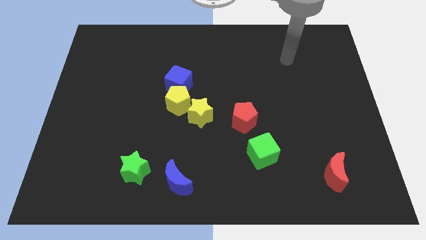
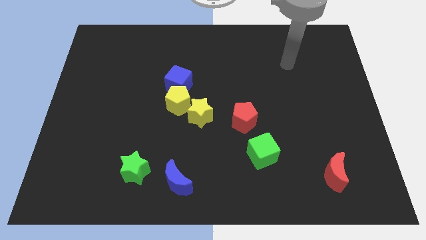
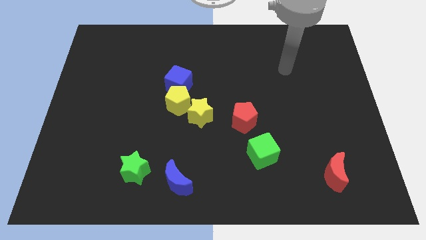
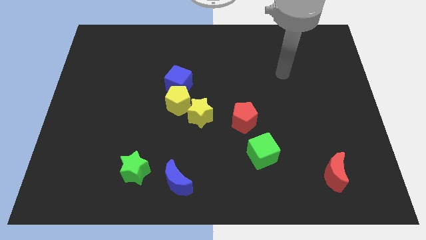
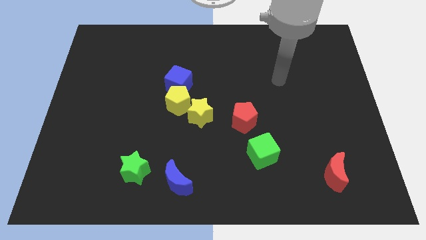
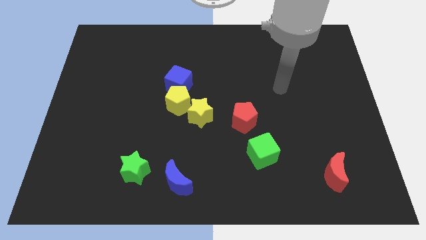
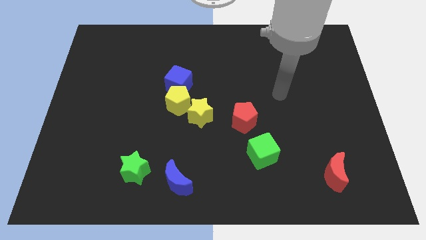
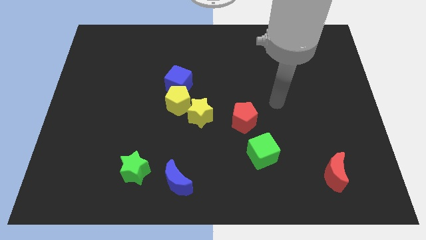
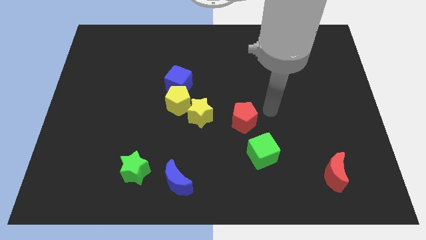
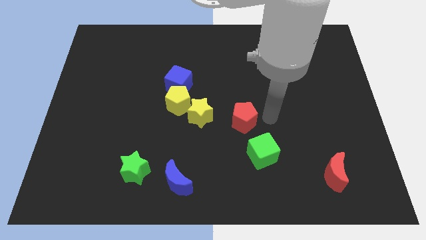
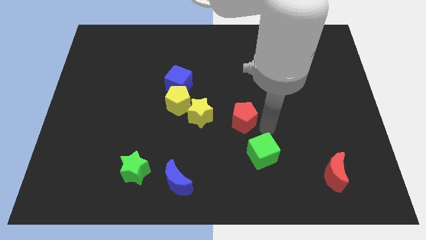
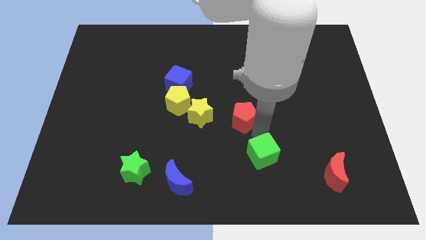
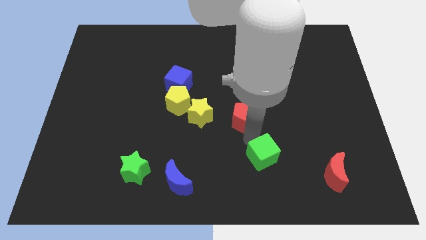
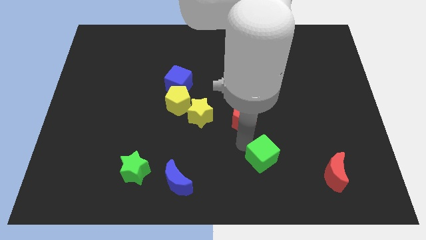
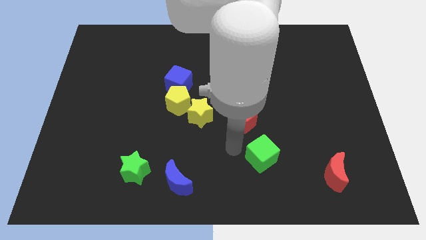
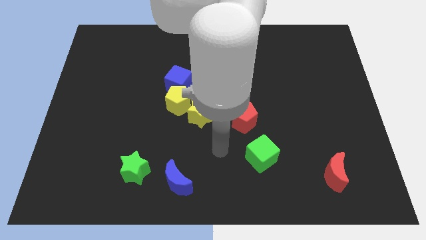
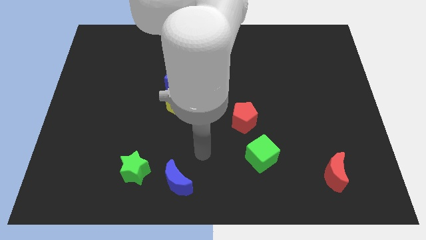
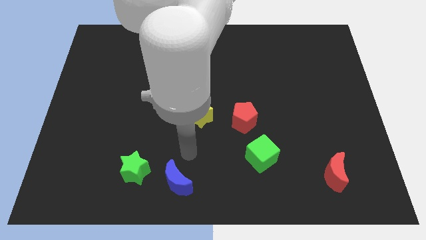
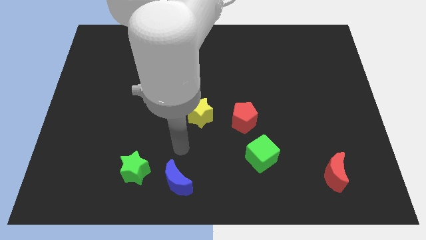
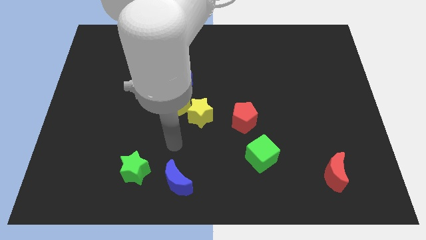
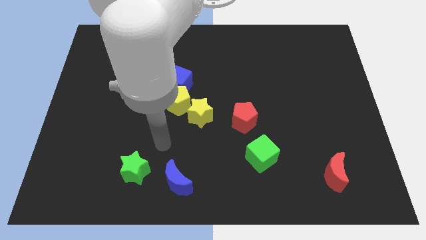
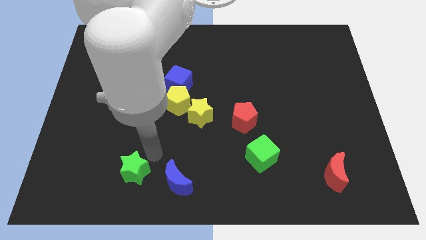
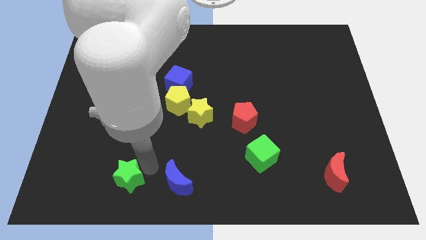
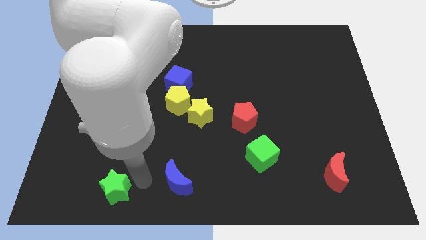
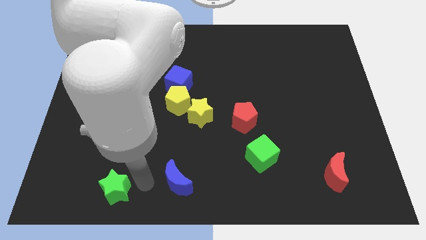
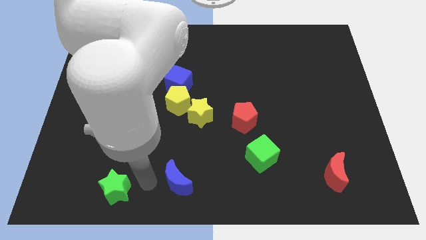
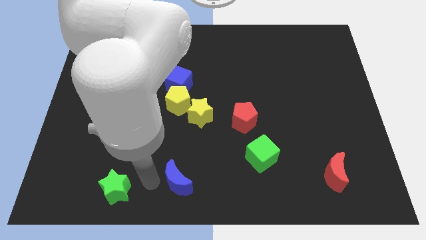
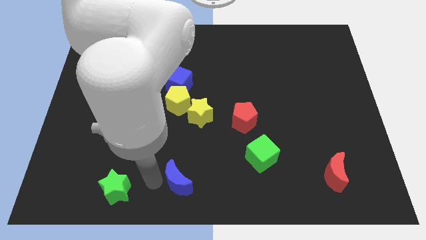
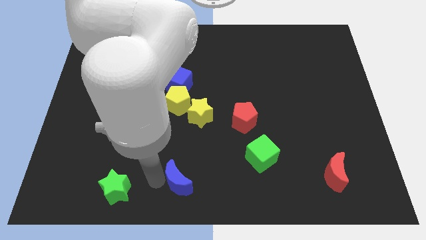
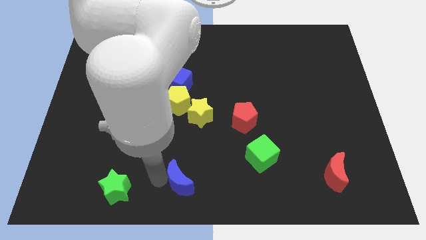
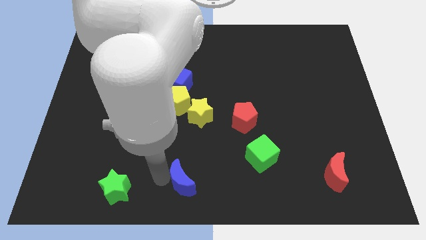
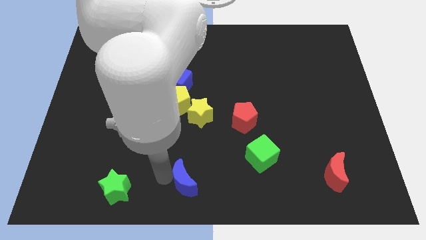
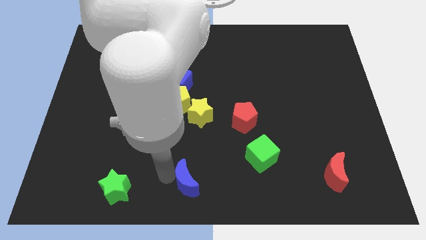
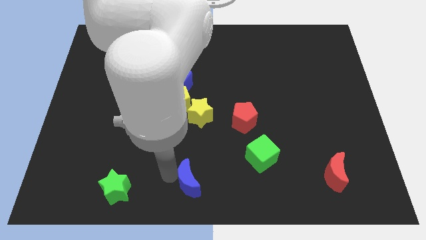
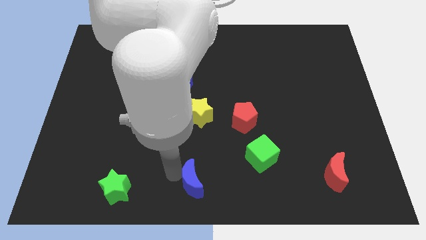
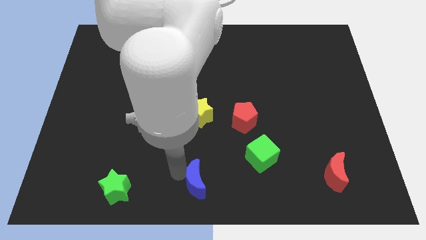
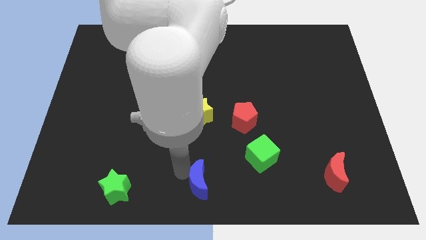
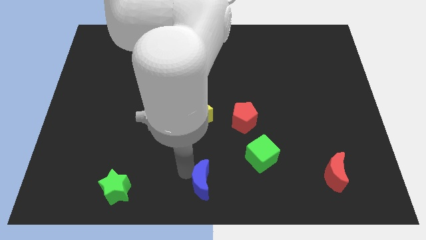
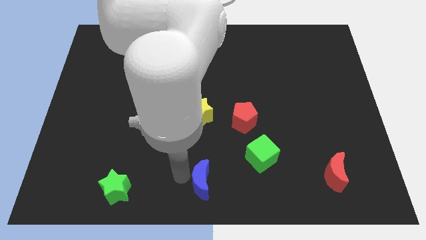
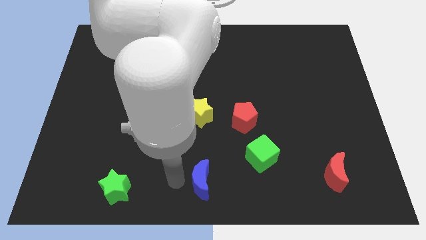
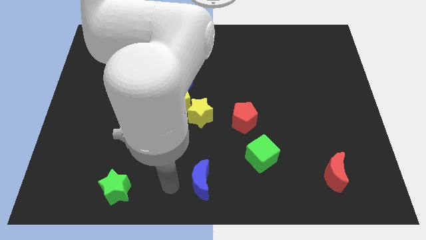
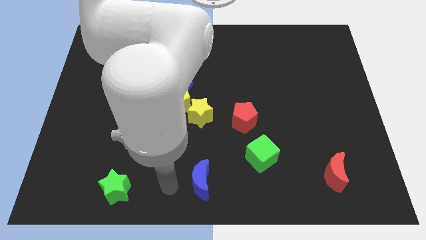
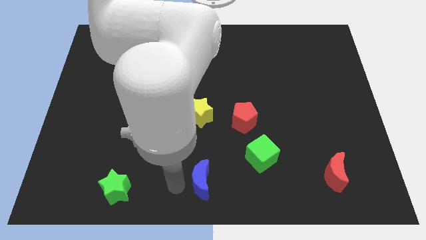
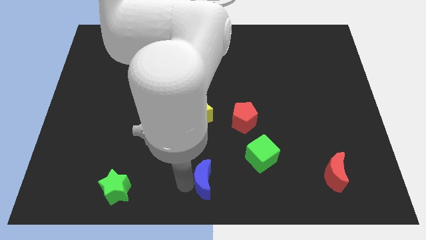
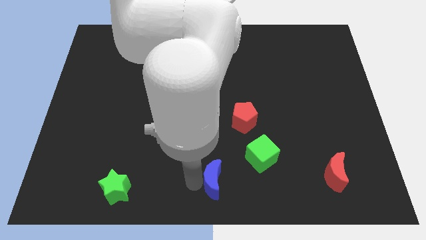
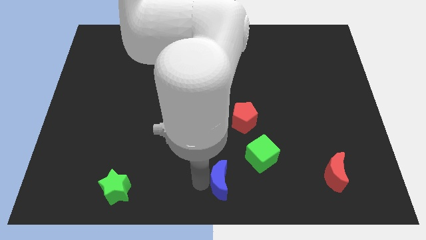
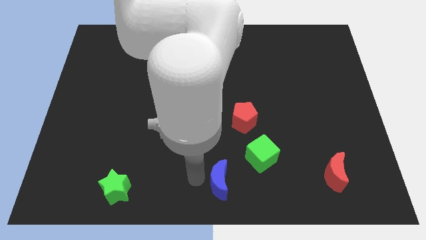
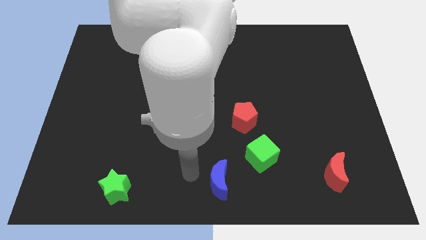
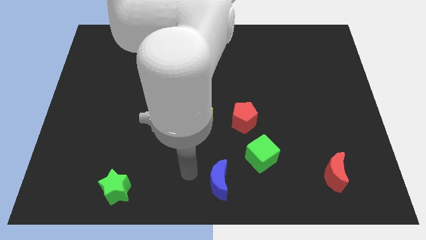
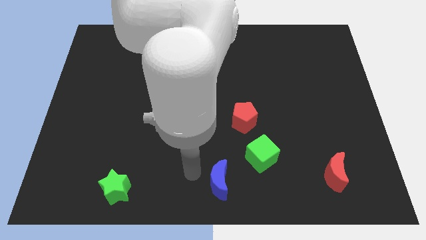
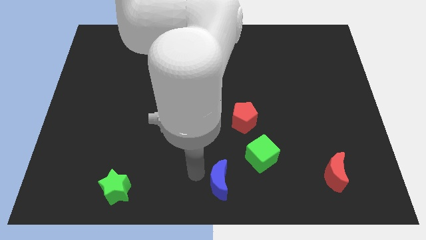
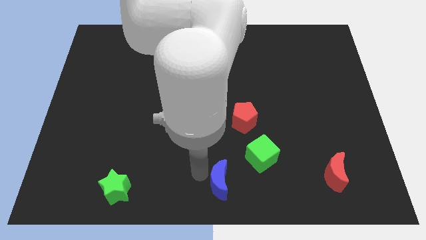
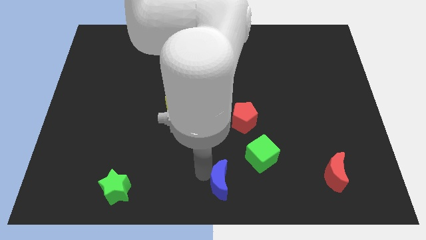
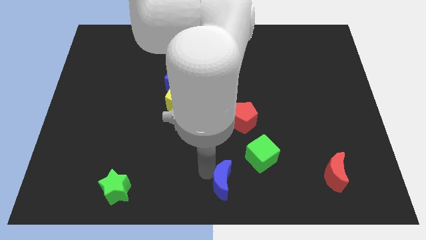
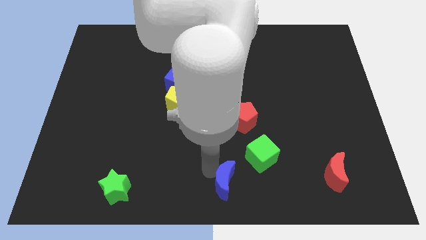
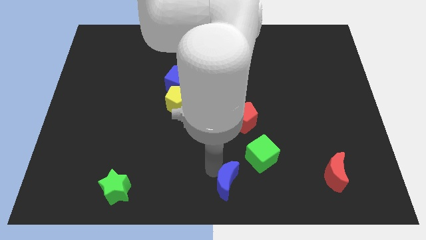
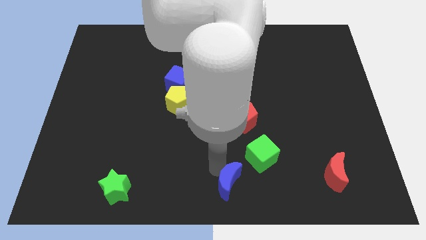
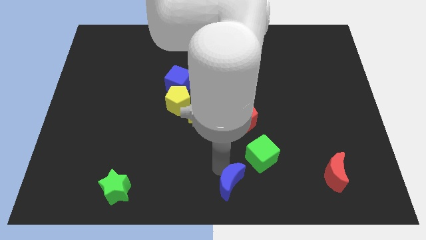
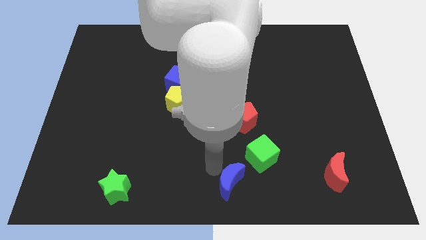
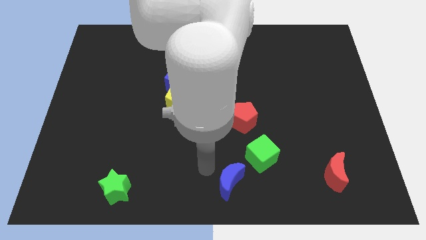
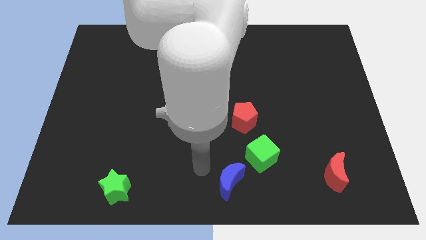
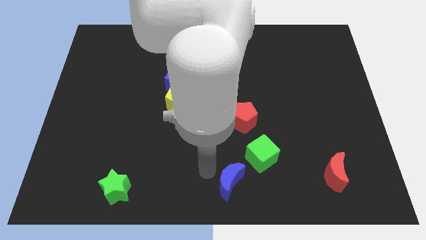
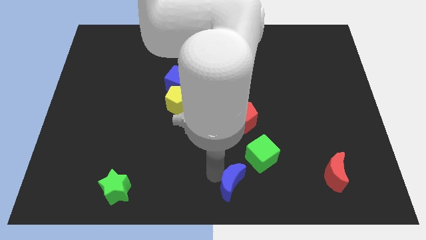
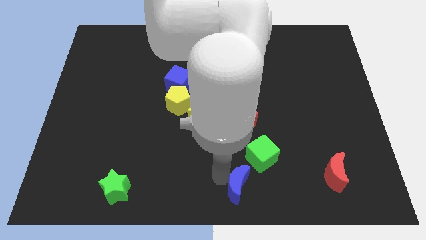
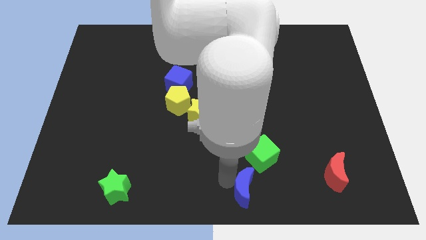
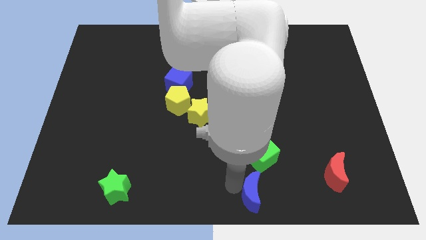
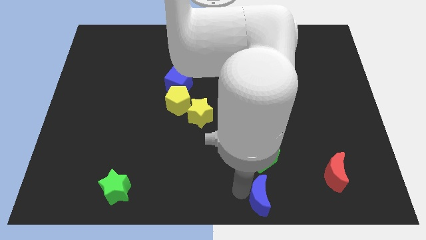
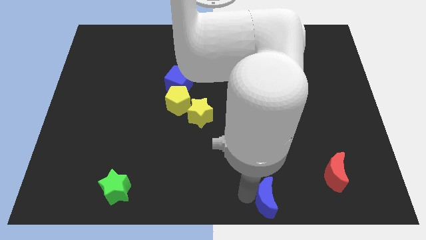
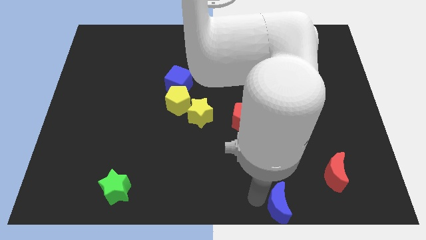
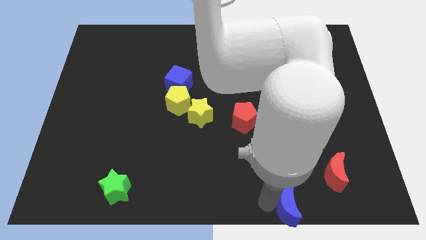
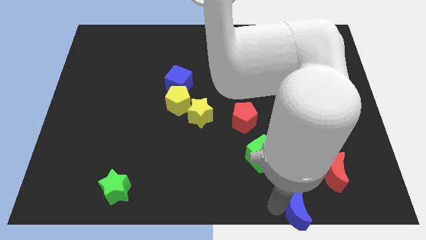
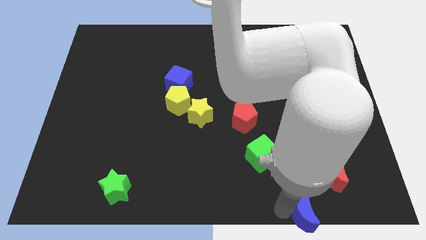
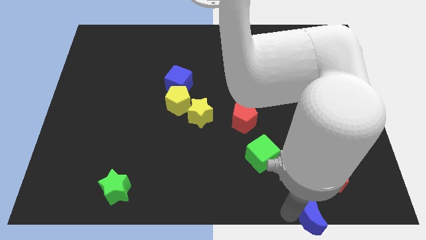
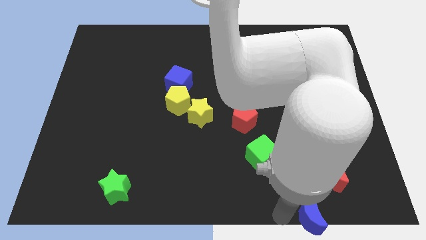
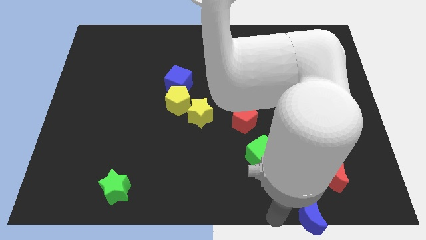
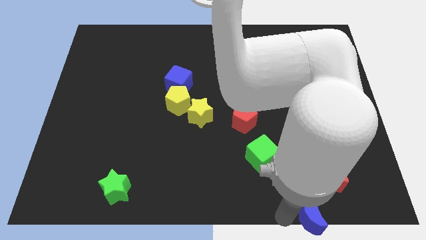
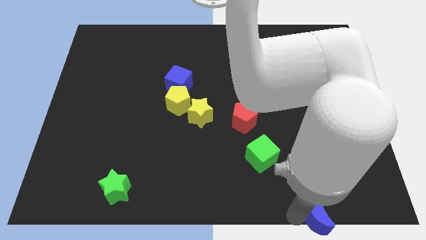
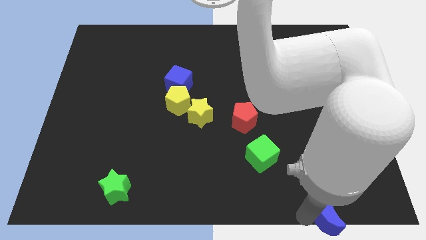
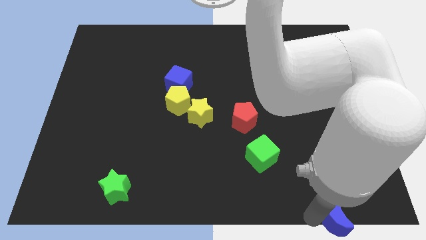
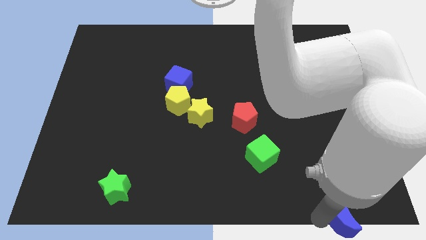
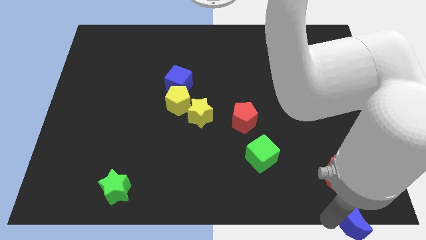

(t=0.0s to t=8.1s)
put the blue moon to the bottom right
